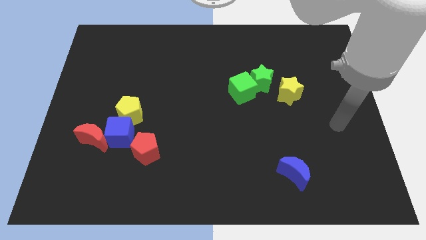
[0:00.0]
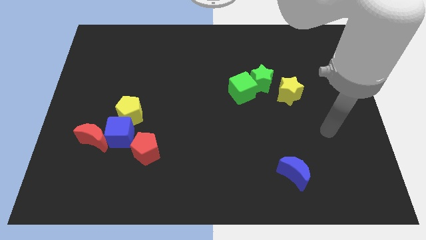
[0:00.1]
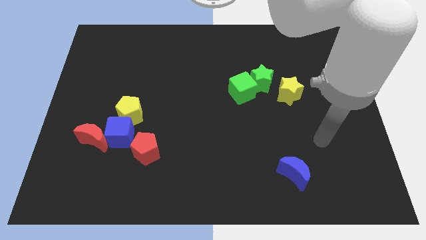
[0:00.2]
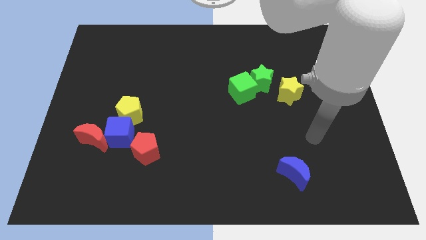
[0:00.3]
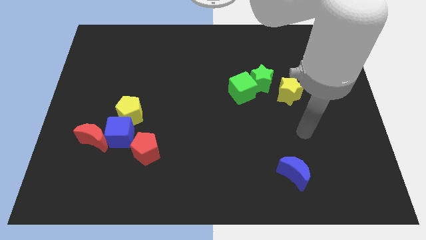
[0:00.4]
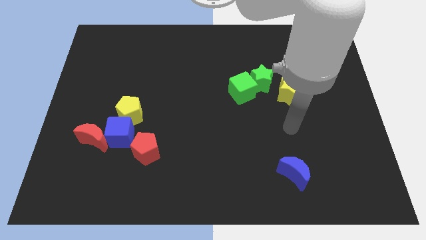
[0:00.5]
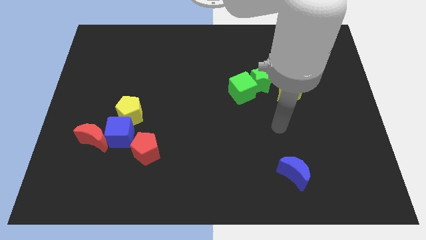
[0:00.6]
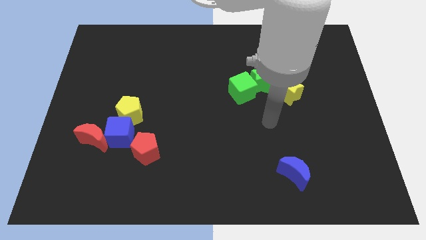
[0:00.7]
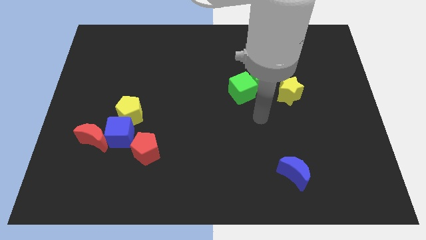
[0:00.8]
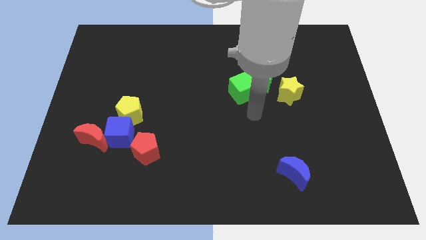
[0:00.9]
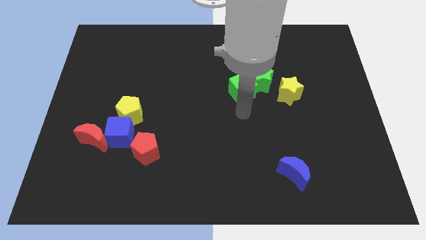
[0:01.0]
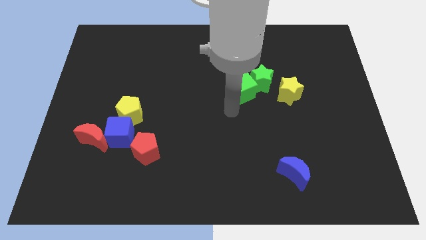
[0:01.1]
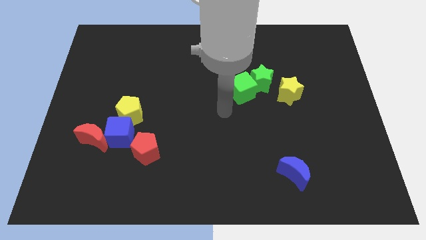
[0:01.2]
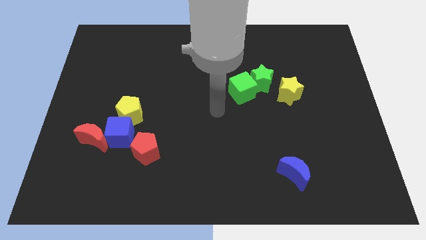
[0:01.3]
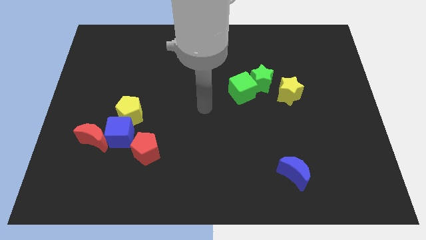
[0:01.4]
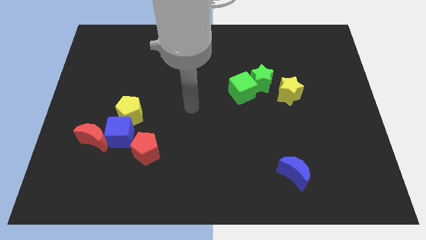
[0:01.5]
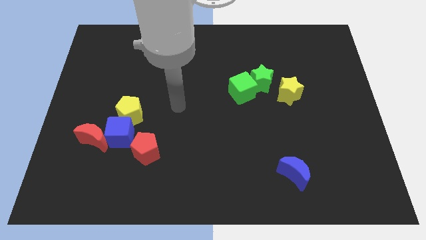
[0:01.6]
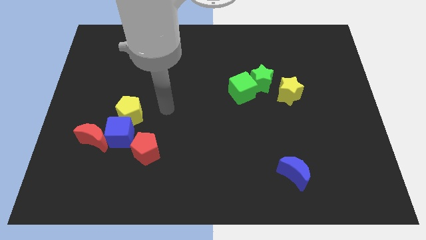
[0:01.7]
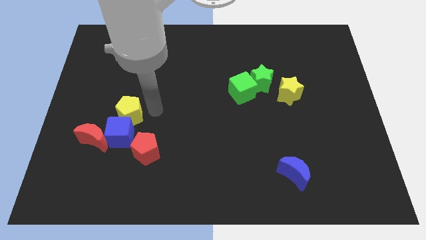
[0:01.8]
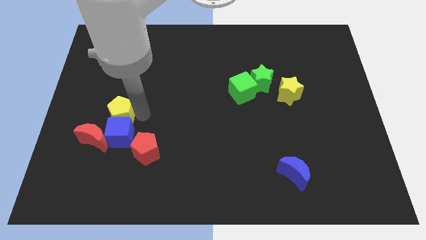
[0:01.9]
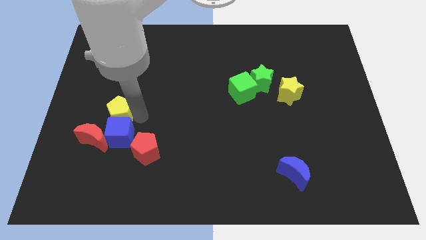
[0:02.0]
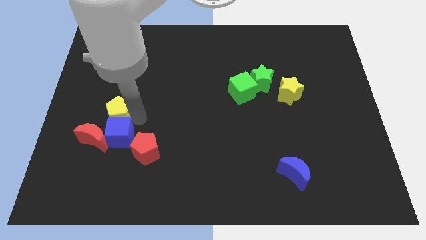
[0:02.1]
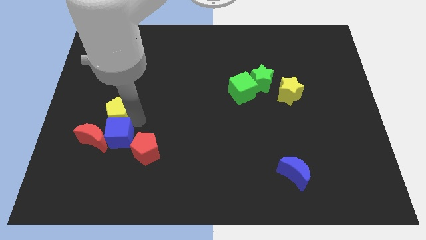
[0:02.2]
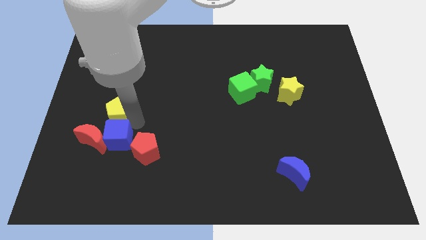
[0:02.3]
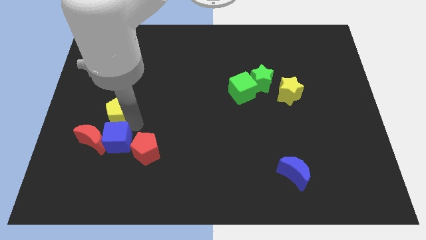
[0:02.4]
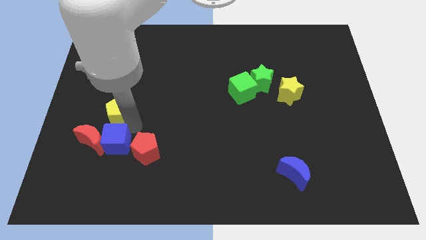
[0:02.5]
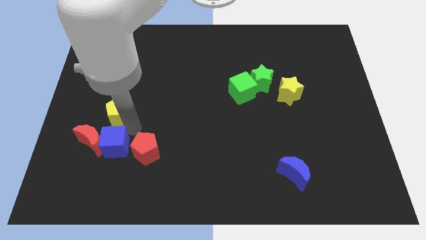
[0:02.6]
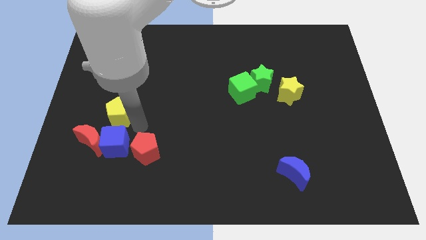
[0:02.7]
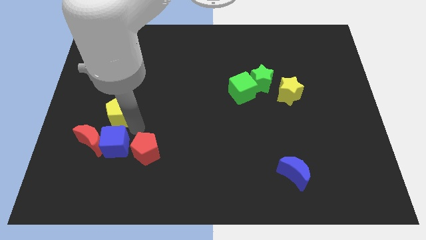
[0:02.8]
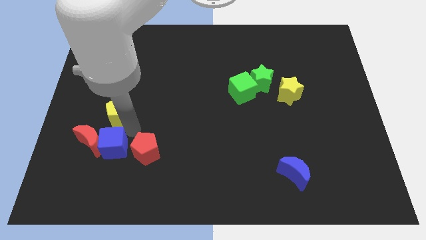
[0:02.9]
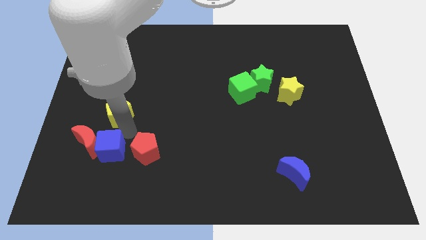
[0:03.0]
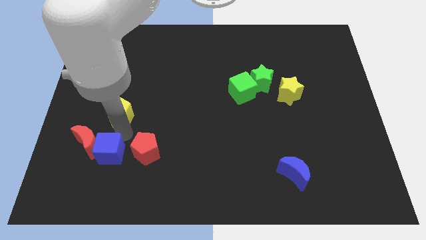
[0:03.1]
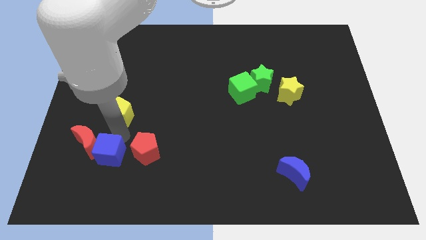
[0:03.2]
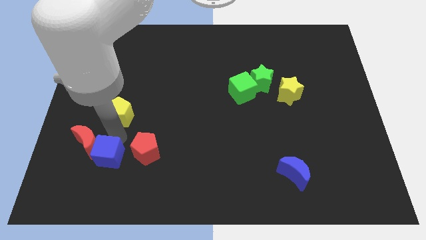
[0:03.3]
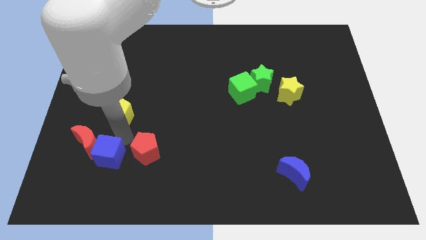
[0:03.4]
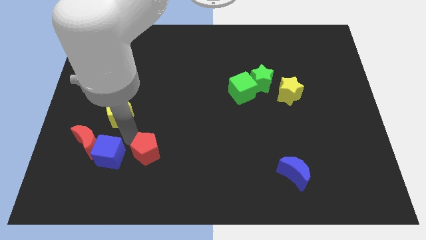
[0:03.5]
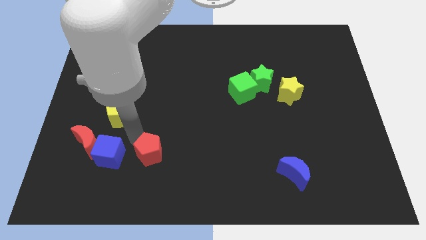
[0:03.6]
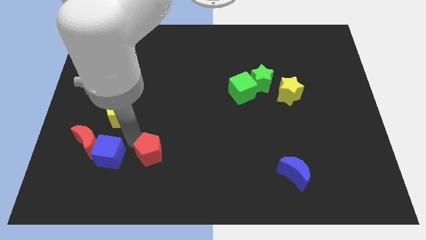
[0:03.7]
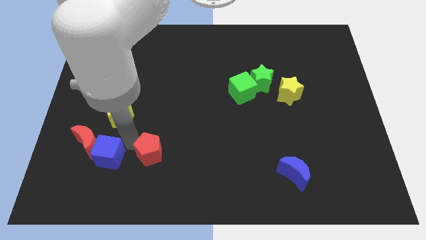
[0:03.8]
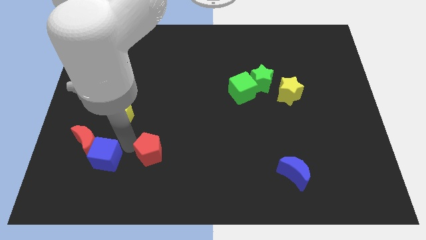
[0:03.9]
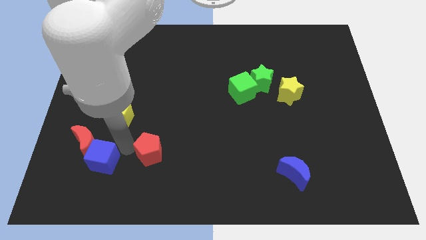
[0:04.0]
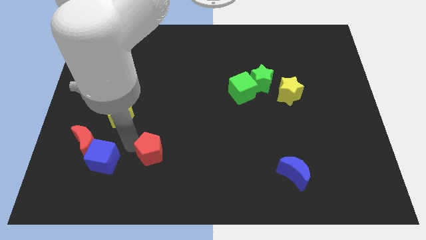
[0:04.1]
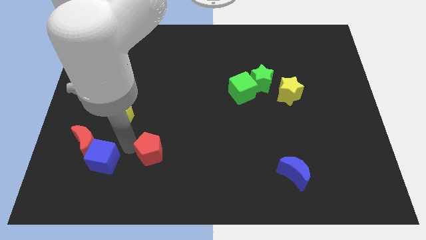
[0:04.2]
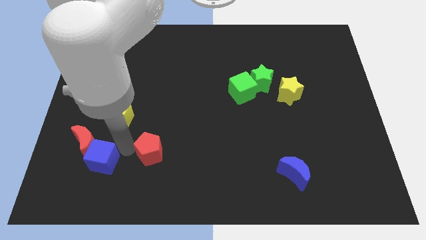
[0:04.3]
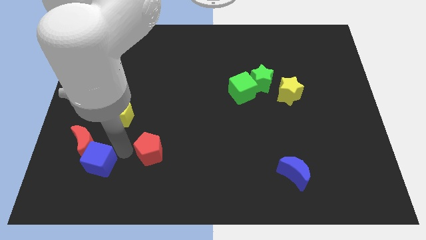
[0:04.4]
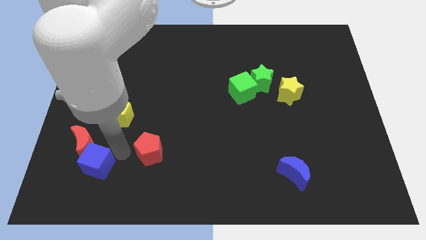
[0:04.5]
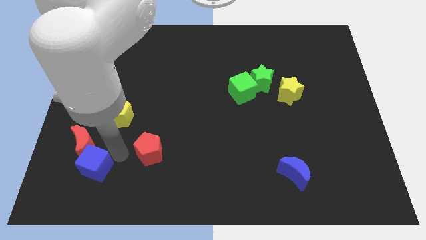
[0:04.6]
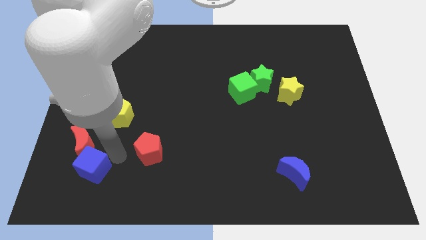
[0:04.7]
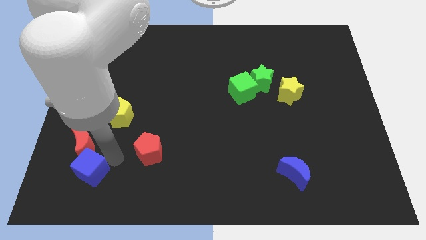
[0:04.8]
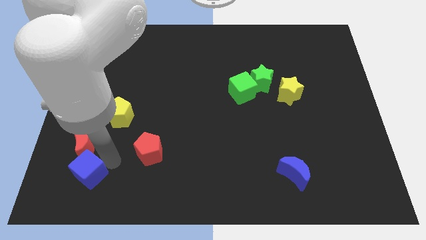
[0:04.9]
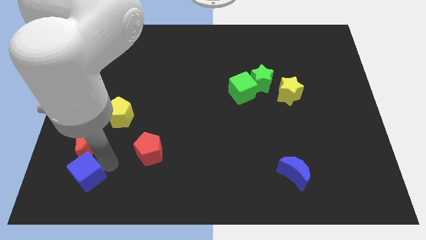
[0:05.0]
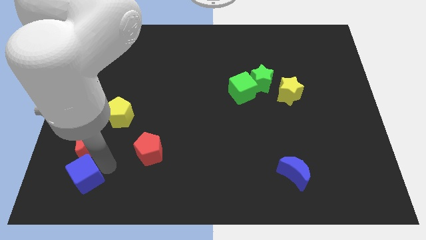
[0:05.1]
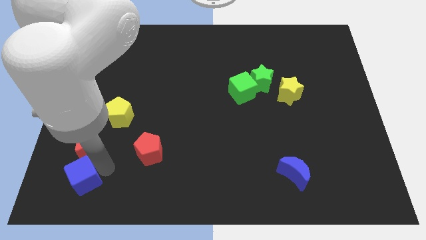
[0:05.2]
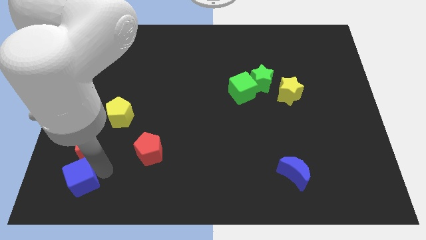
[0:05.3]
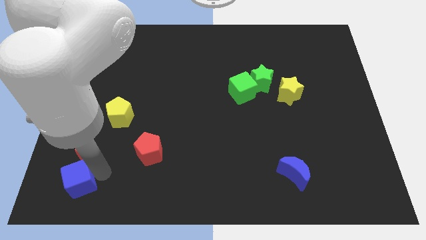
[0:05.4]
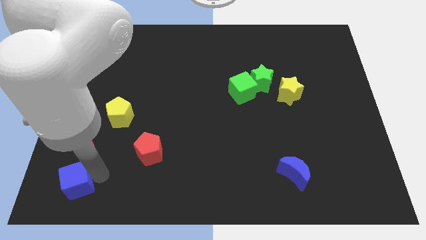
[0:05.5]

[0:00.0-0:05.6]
move the blue cube to the lower left corner

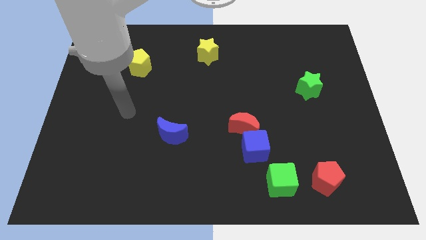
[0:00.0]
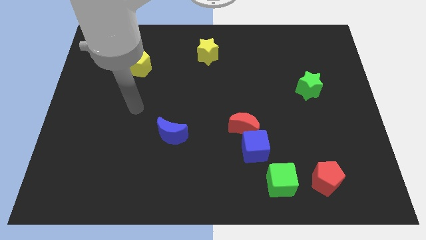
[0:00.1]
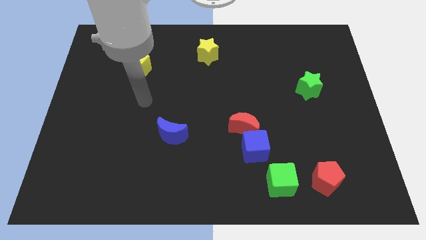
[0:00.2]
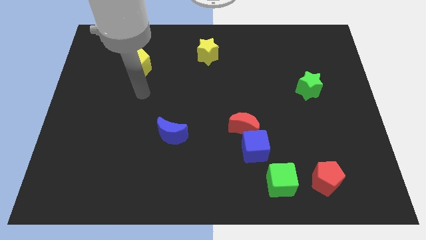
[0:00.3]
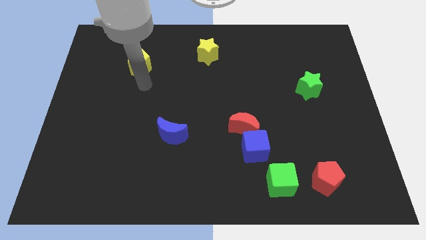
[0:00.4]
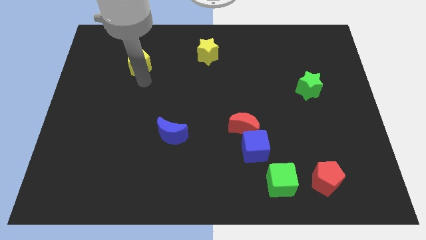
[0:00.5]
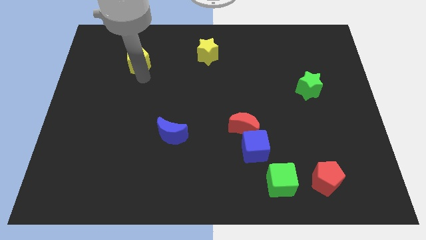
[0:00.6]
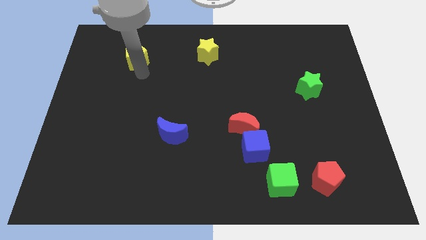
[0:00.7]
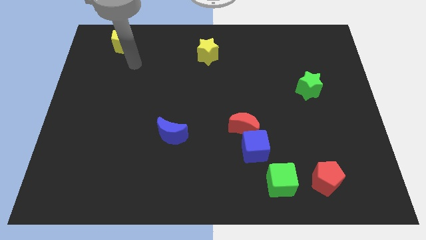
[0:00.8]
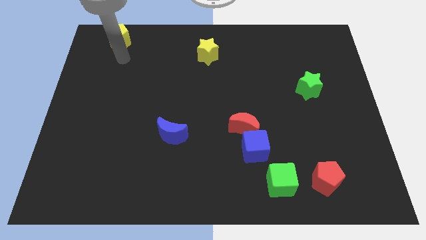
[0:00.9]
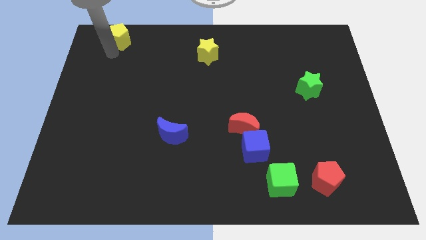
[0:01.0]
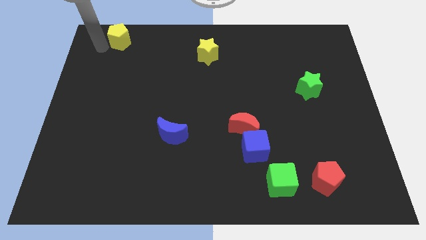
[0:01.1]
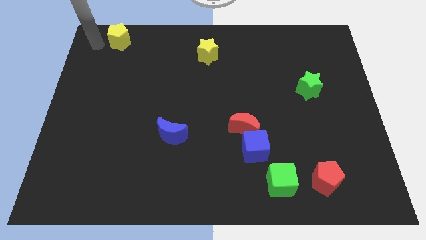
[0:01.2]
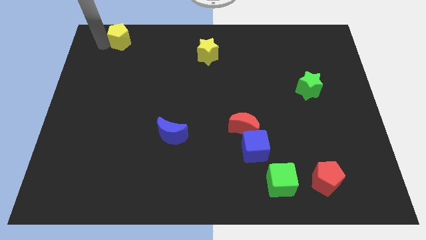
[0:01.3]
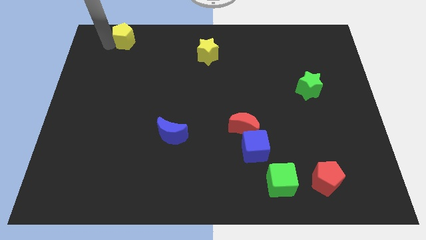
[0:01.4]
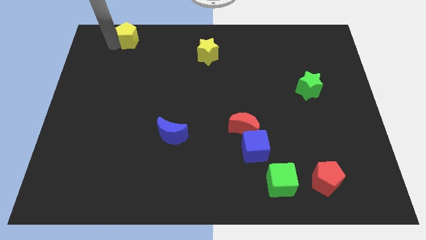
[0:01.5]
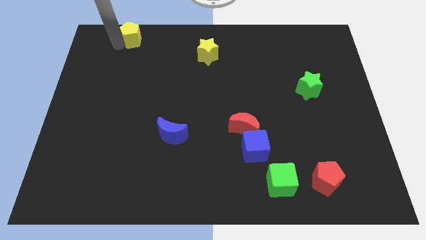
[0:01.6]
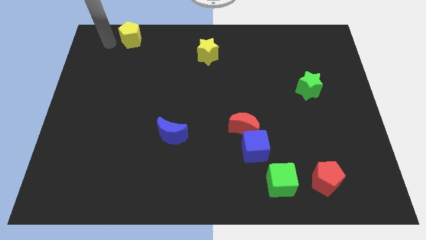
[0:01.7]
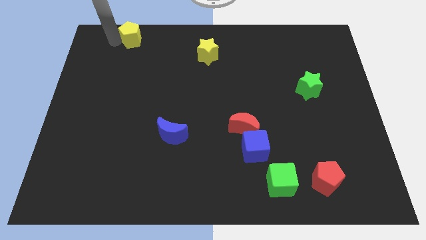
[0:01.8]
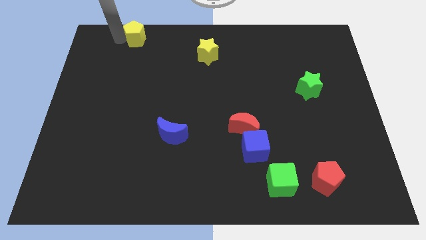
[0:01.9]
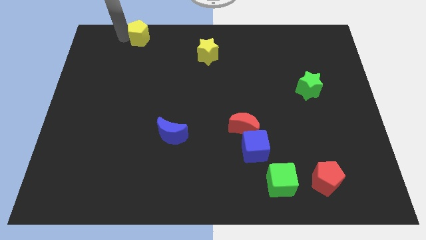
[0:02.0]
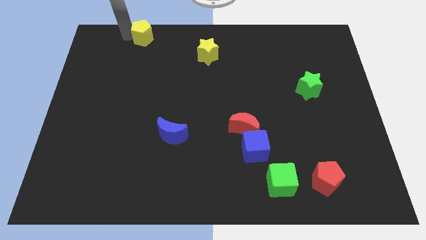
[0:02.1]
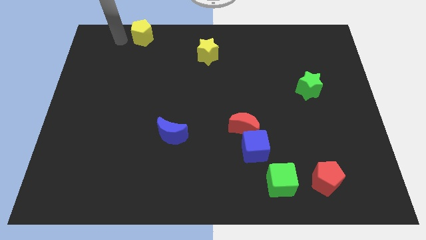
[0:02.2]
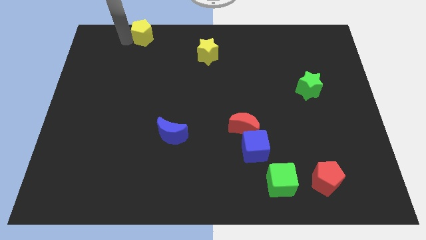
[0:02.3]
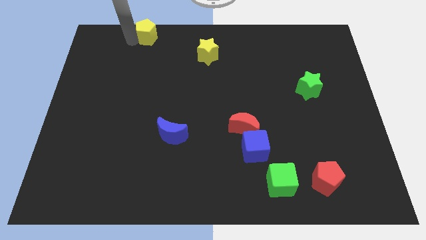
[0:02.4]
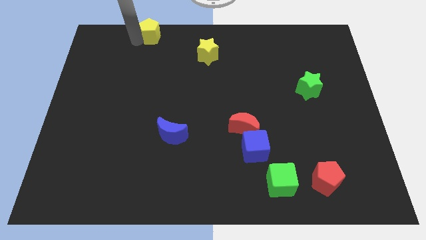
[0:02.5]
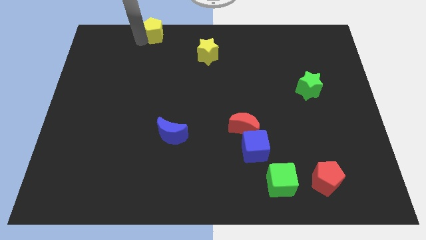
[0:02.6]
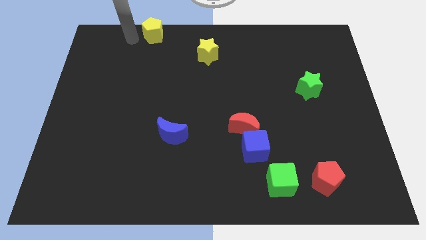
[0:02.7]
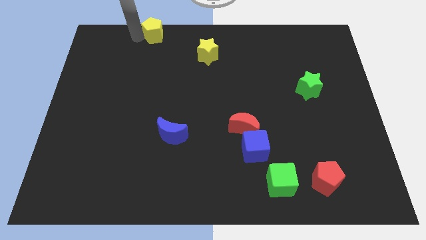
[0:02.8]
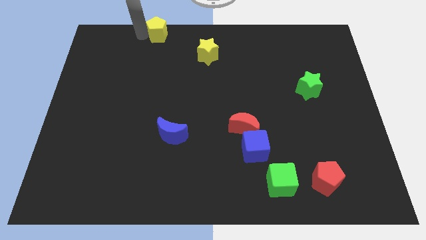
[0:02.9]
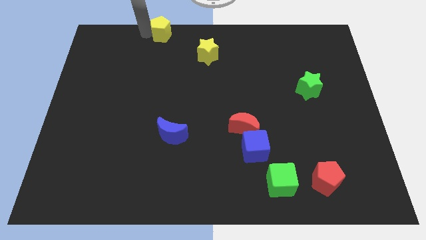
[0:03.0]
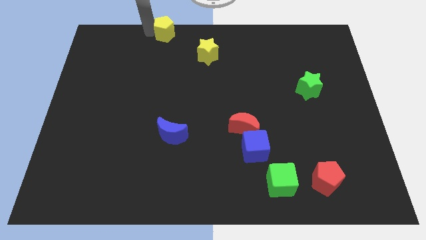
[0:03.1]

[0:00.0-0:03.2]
move the yellow pentagon to the top
